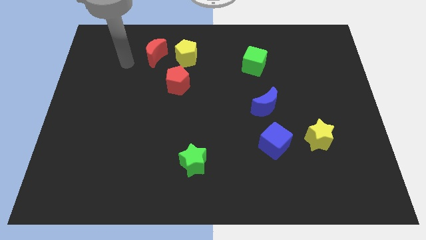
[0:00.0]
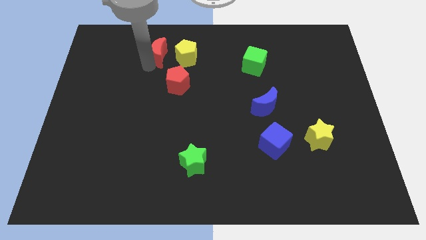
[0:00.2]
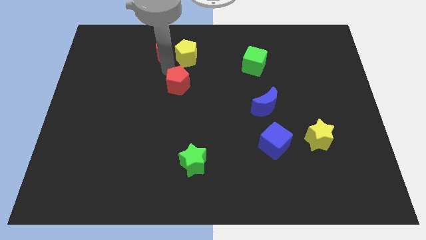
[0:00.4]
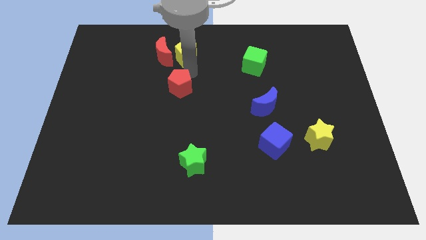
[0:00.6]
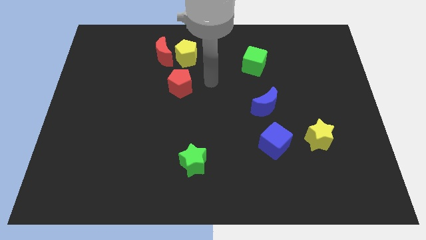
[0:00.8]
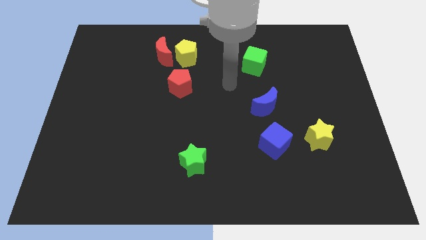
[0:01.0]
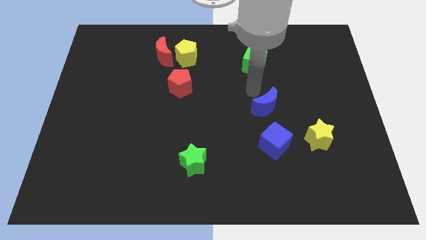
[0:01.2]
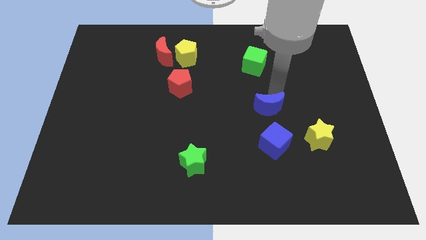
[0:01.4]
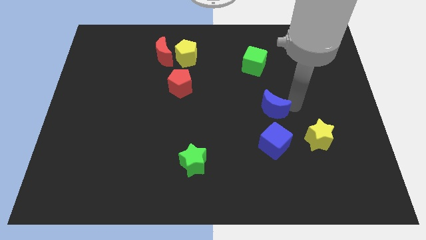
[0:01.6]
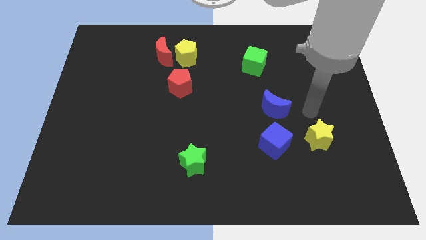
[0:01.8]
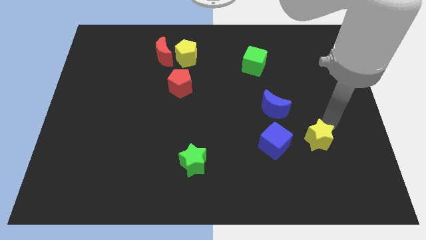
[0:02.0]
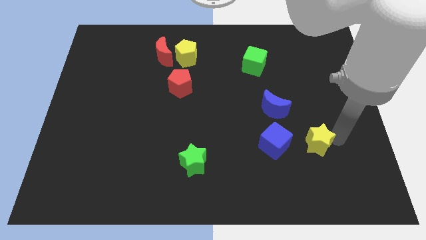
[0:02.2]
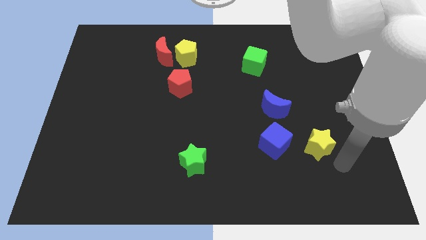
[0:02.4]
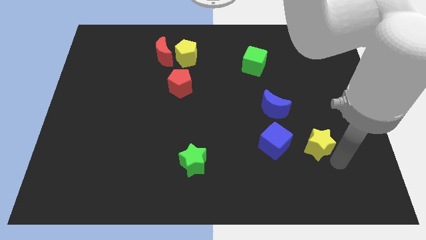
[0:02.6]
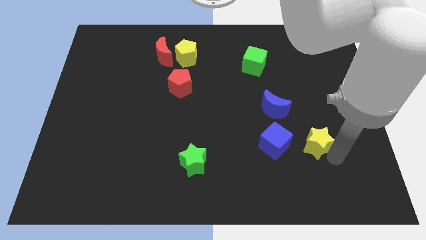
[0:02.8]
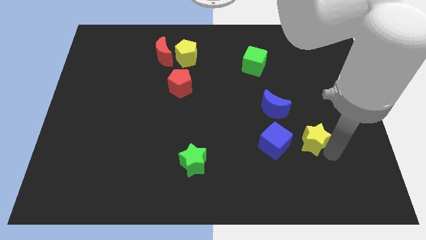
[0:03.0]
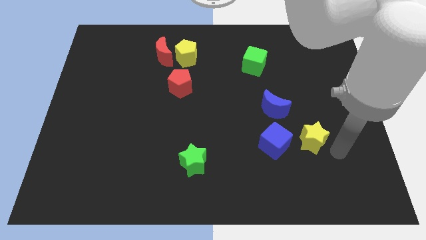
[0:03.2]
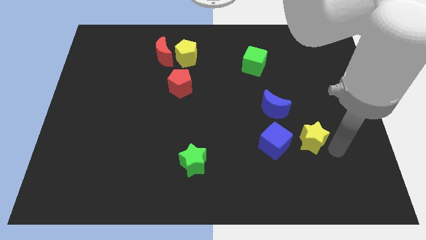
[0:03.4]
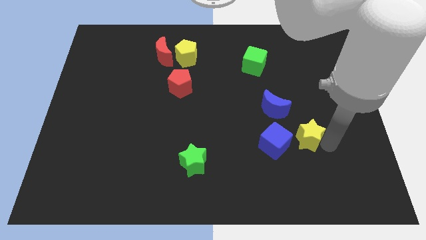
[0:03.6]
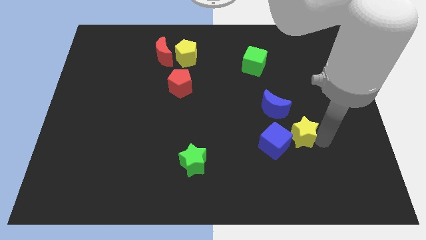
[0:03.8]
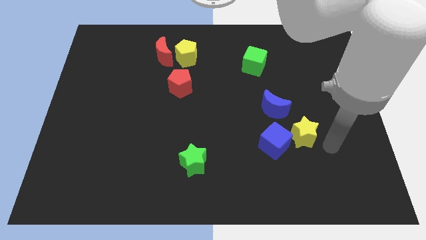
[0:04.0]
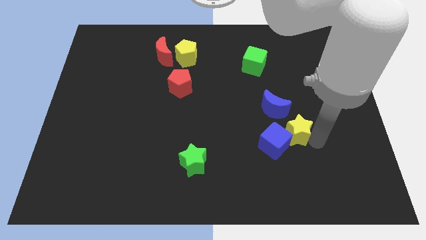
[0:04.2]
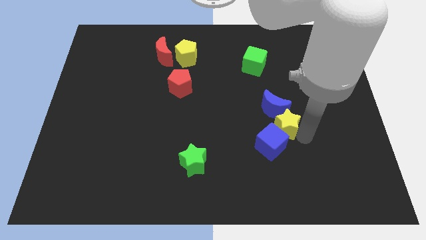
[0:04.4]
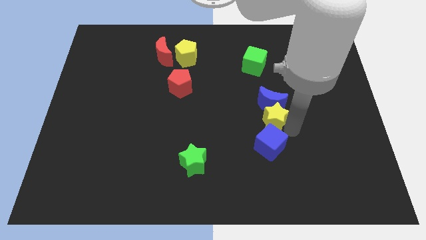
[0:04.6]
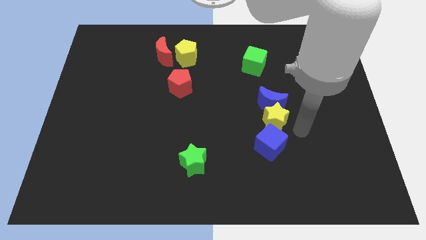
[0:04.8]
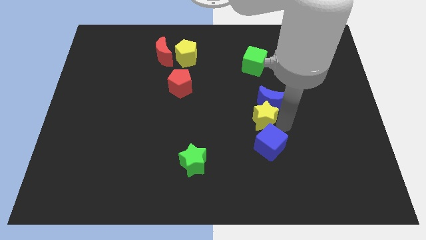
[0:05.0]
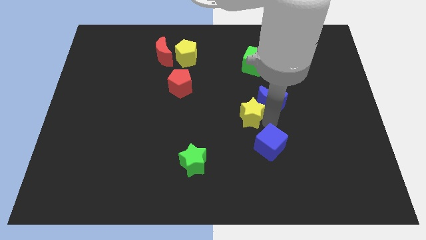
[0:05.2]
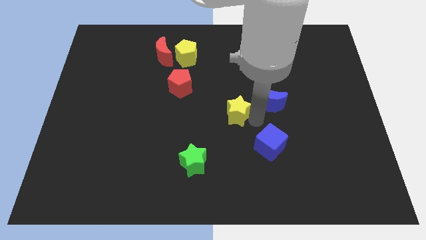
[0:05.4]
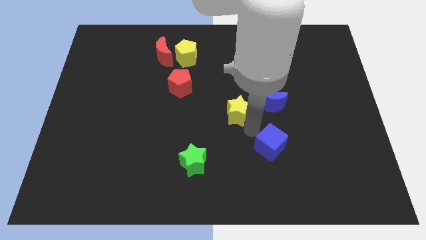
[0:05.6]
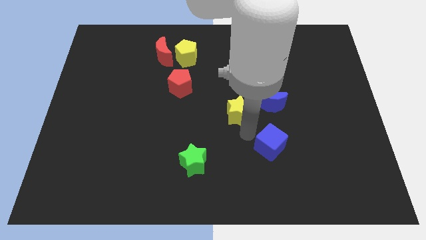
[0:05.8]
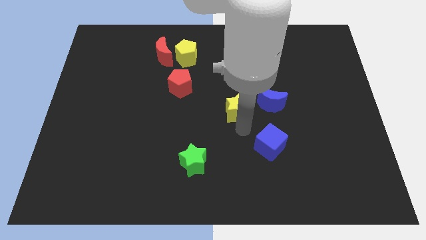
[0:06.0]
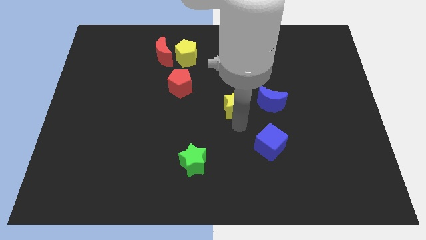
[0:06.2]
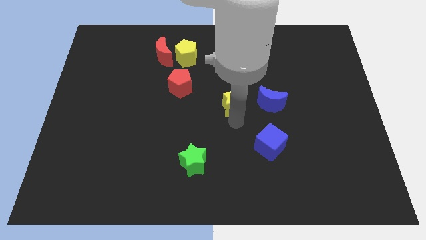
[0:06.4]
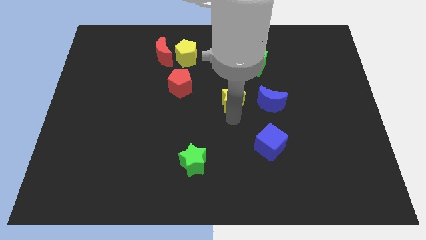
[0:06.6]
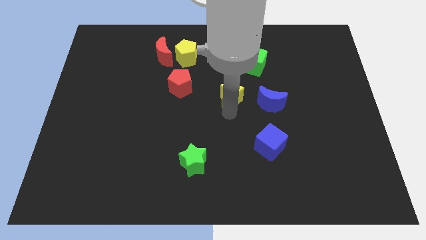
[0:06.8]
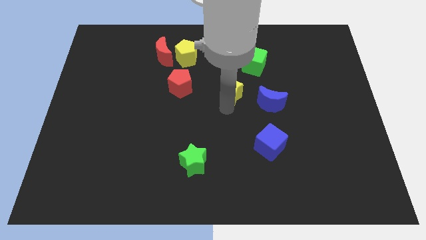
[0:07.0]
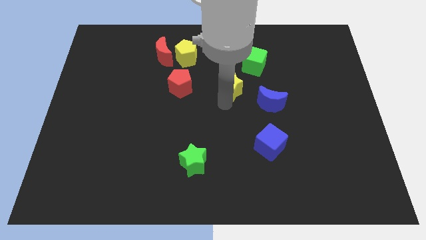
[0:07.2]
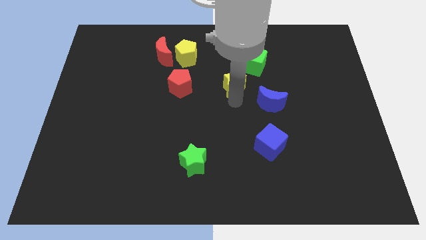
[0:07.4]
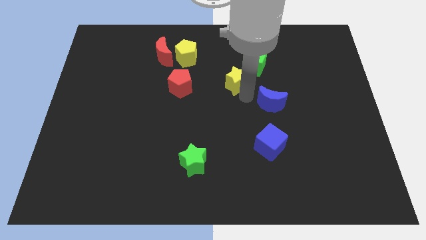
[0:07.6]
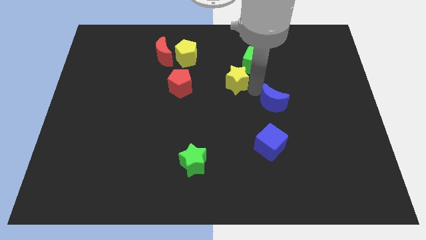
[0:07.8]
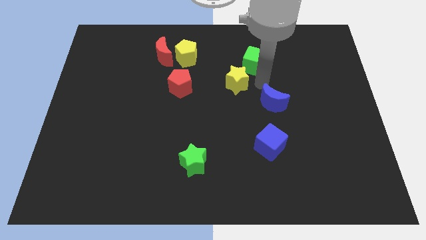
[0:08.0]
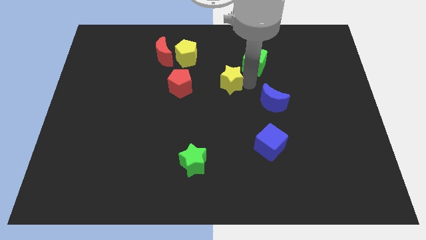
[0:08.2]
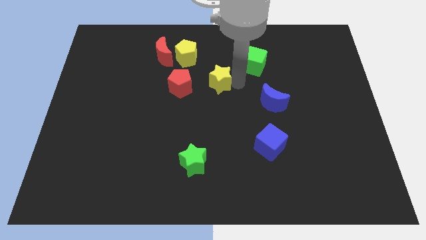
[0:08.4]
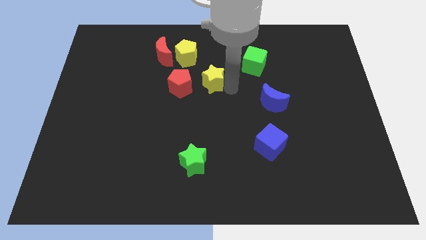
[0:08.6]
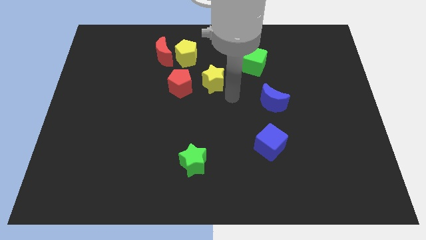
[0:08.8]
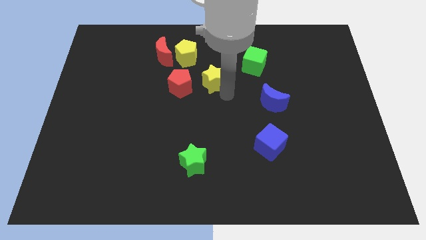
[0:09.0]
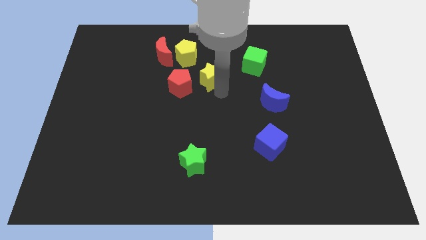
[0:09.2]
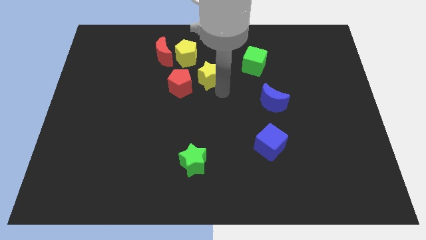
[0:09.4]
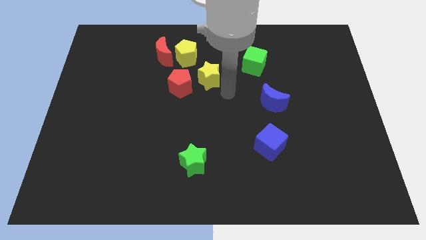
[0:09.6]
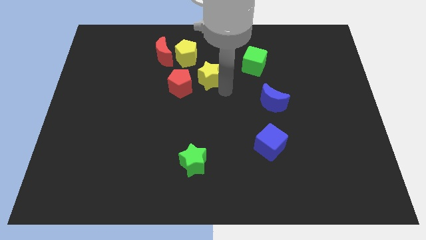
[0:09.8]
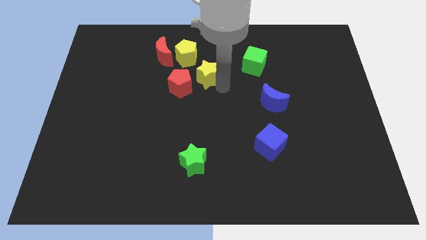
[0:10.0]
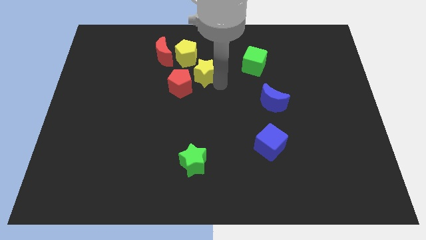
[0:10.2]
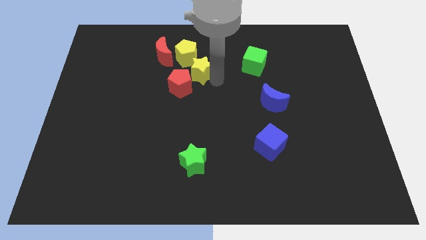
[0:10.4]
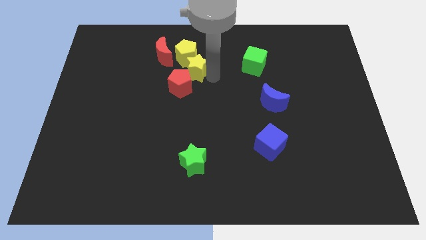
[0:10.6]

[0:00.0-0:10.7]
slide the yellow star close to the yellow pentagon

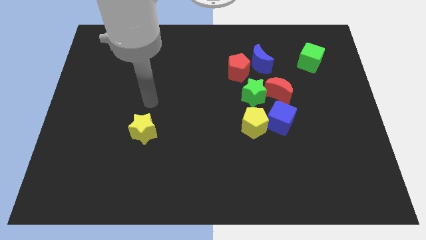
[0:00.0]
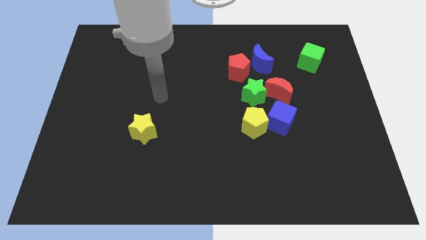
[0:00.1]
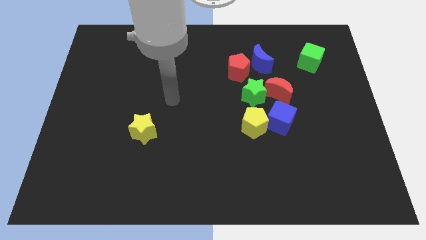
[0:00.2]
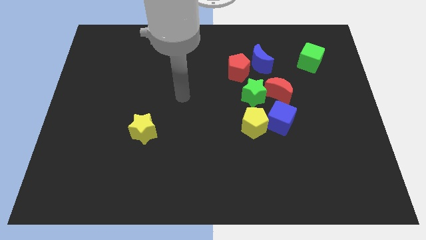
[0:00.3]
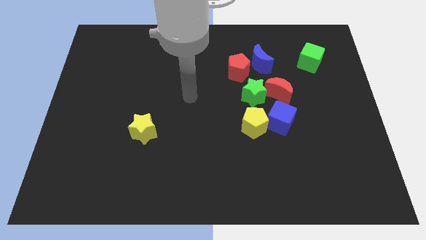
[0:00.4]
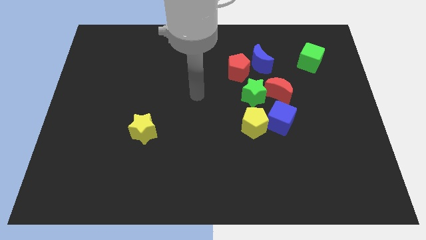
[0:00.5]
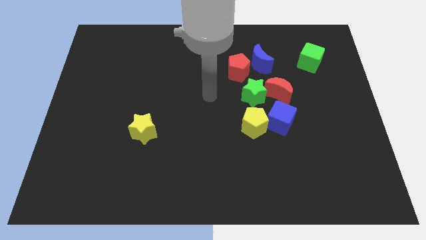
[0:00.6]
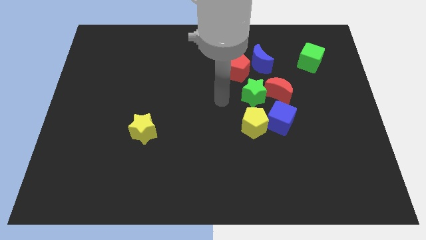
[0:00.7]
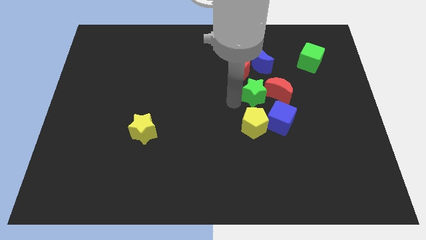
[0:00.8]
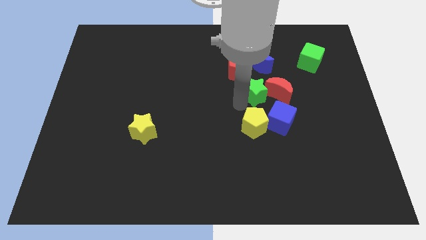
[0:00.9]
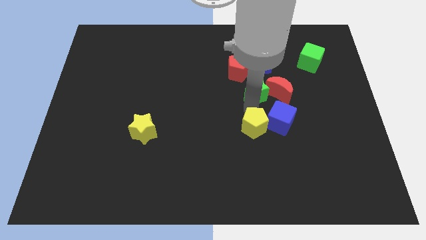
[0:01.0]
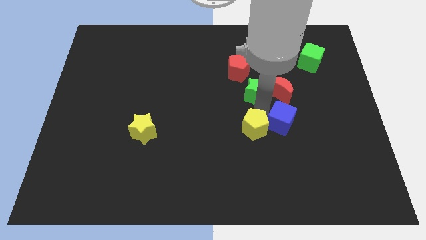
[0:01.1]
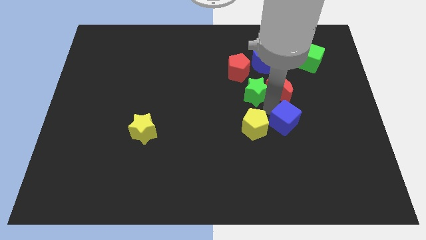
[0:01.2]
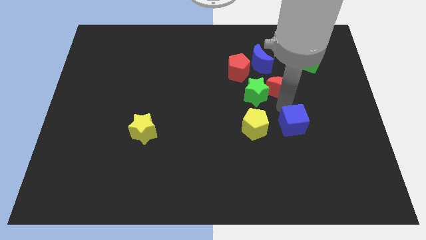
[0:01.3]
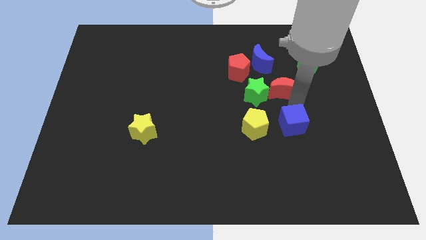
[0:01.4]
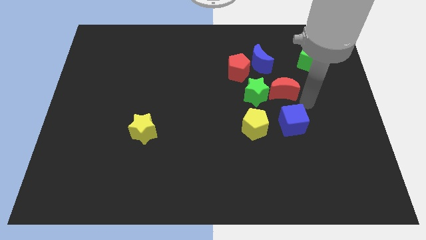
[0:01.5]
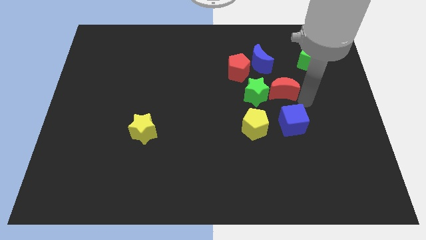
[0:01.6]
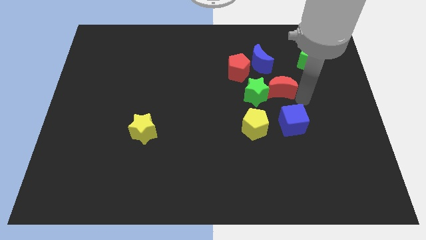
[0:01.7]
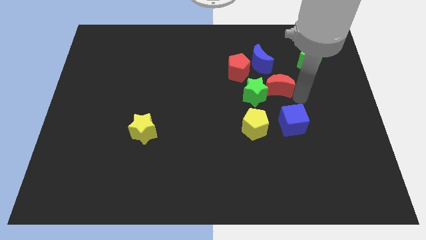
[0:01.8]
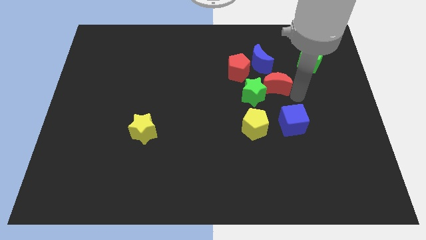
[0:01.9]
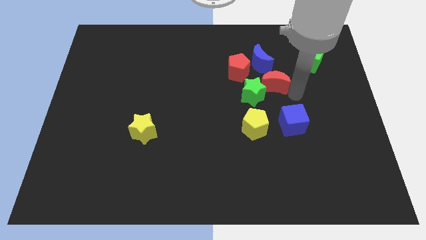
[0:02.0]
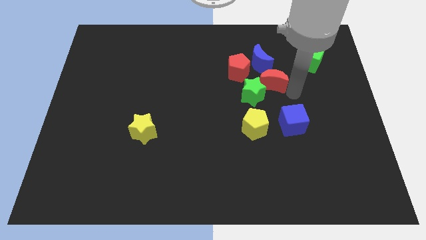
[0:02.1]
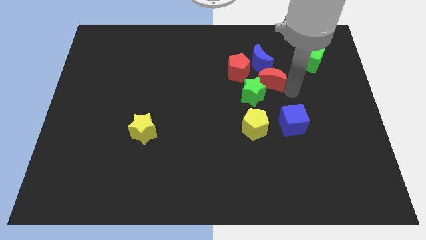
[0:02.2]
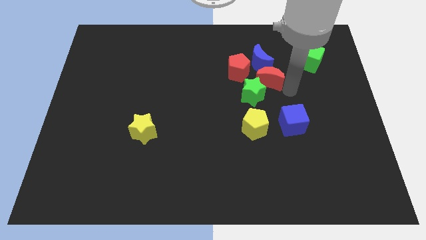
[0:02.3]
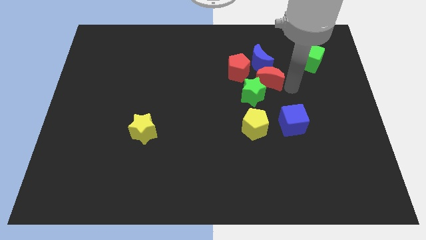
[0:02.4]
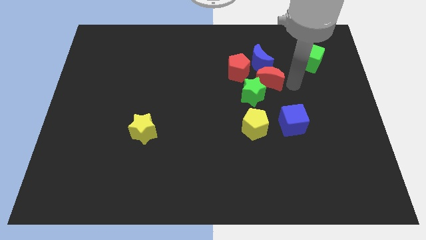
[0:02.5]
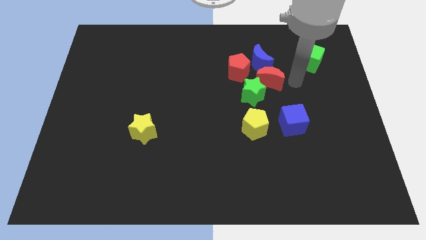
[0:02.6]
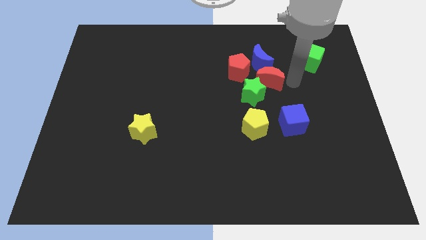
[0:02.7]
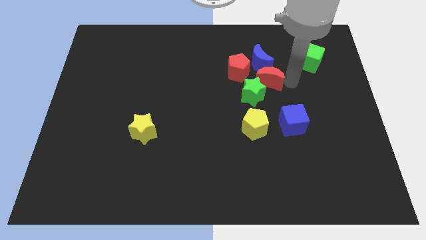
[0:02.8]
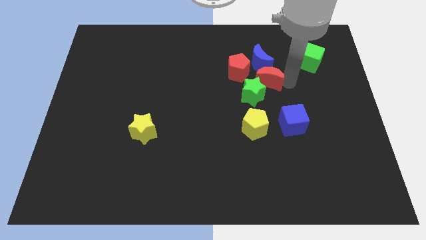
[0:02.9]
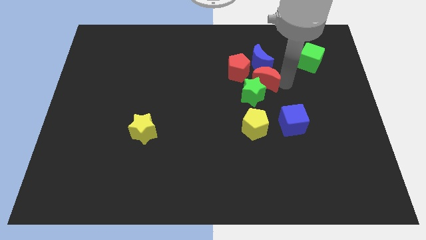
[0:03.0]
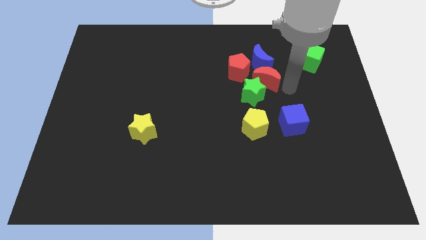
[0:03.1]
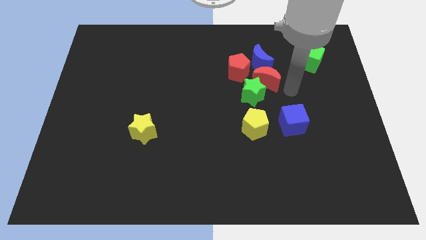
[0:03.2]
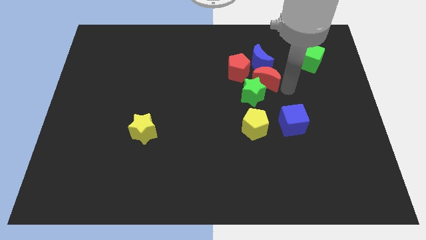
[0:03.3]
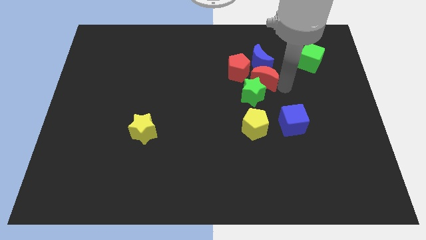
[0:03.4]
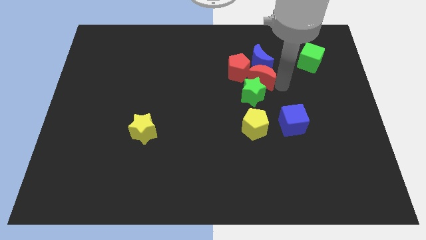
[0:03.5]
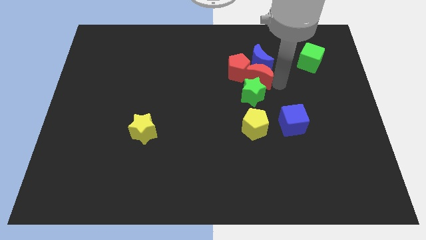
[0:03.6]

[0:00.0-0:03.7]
put the red moon next to the red pentagon
